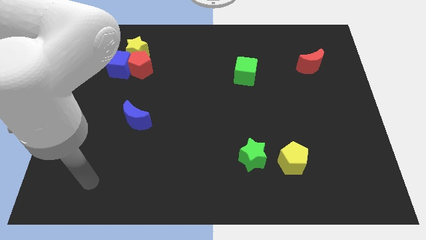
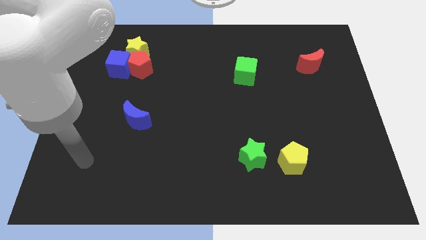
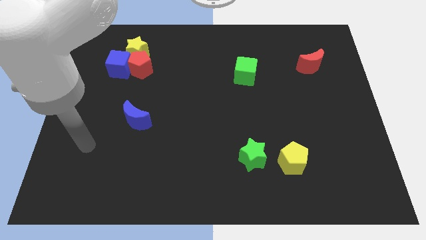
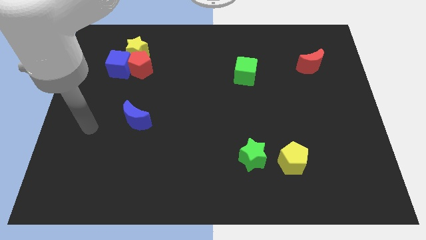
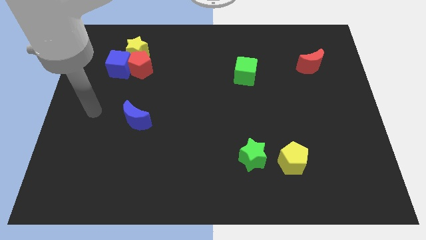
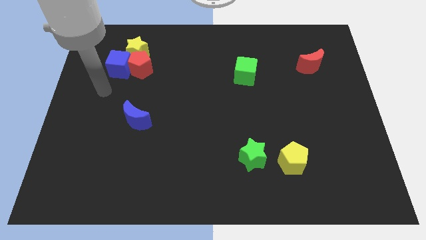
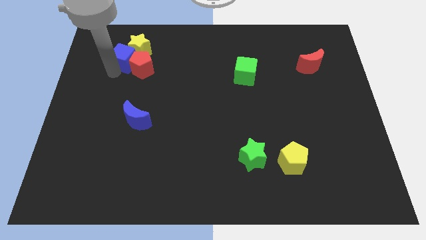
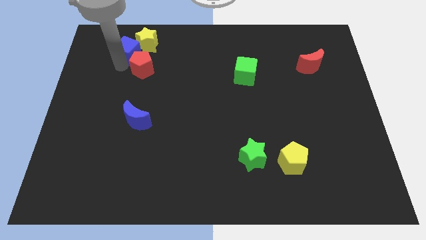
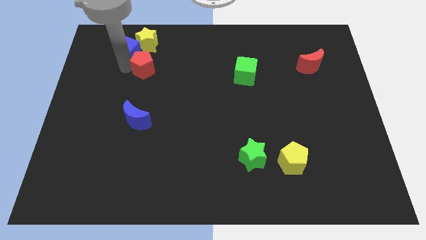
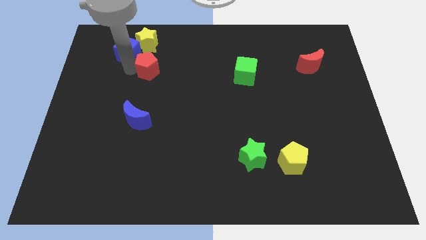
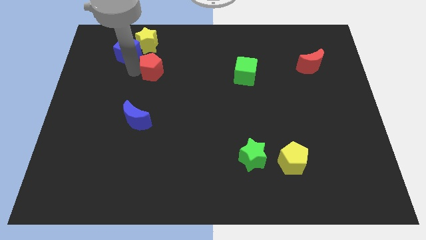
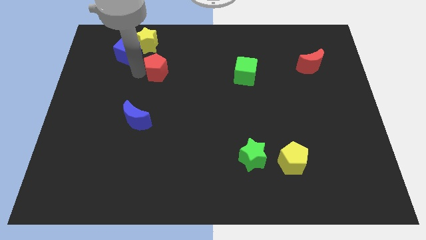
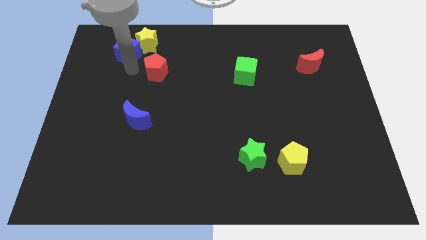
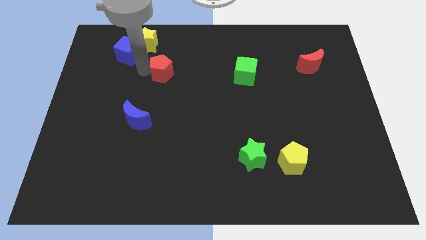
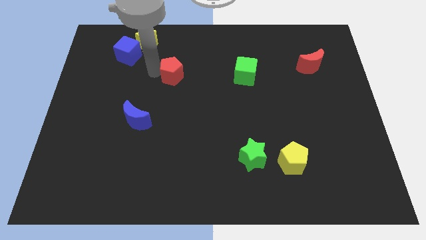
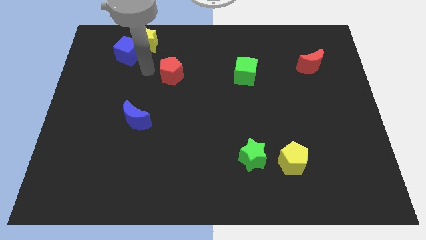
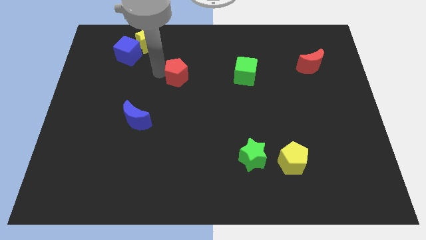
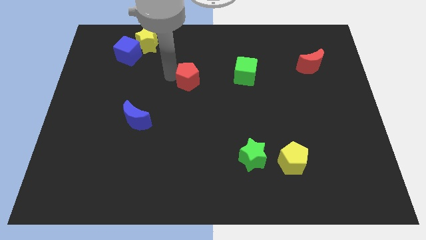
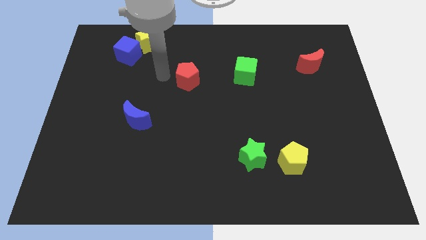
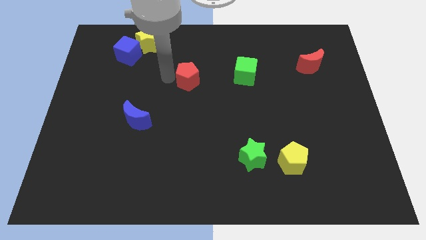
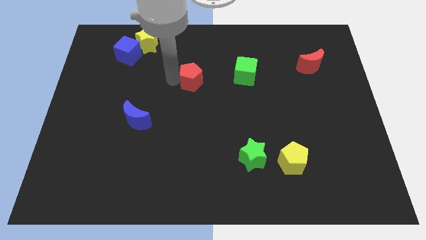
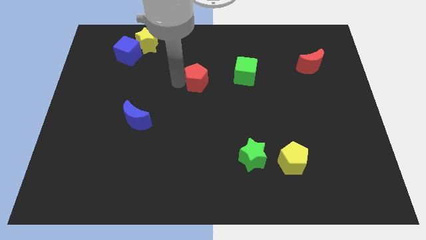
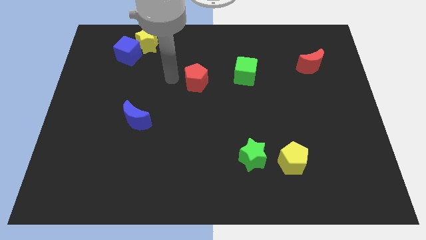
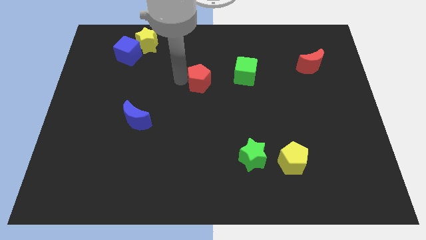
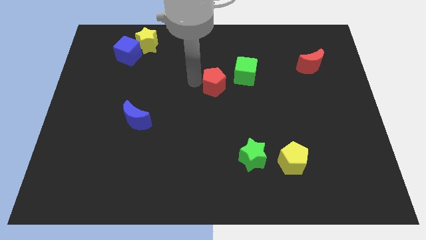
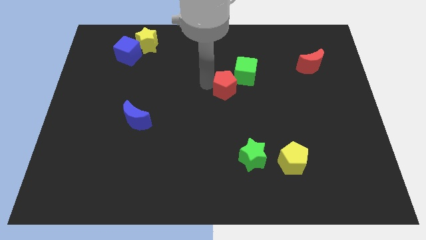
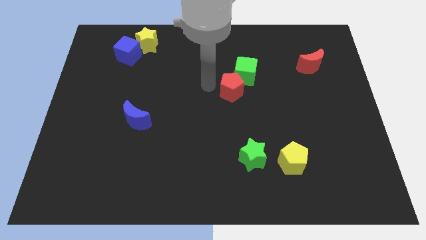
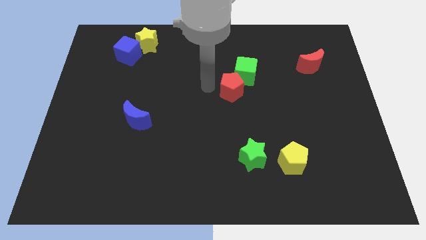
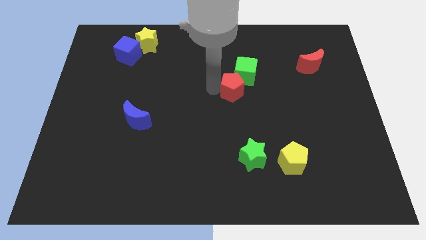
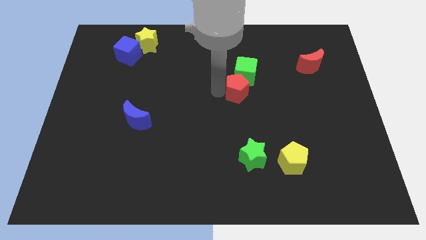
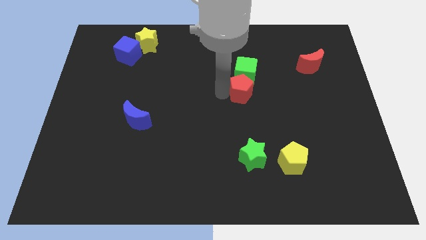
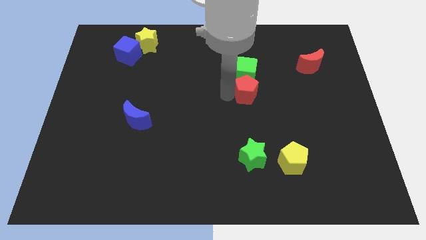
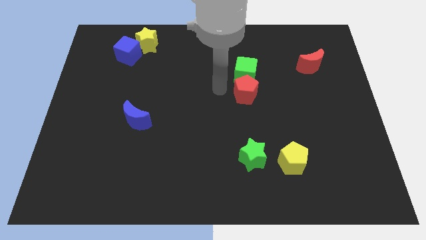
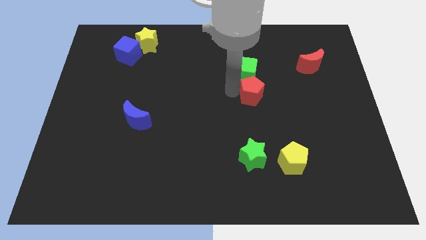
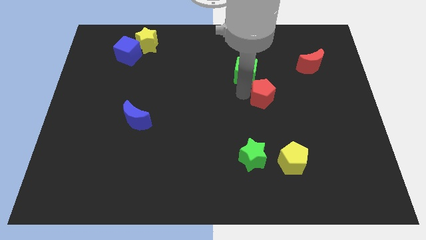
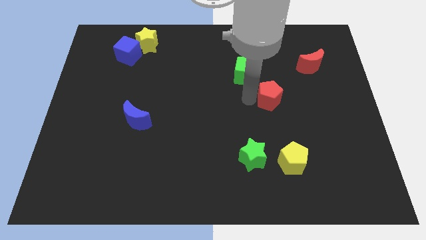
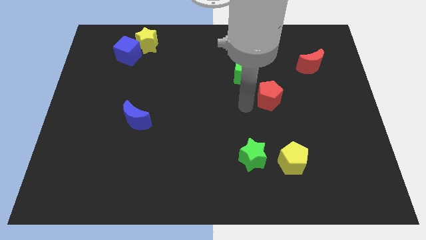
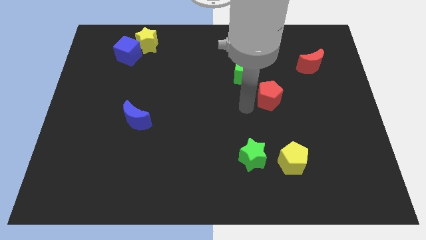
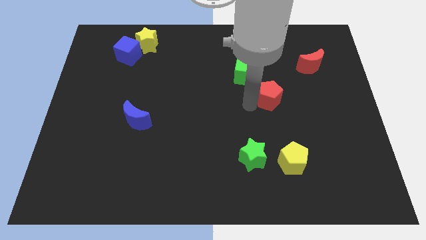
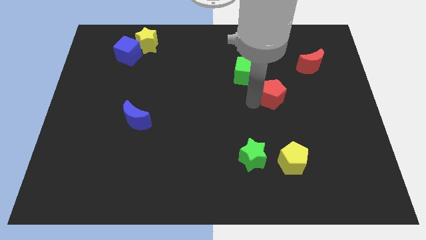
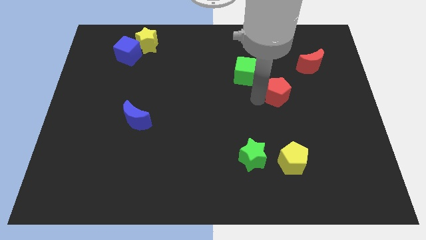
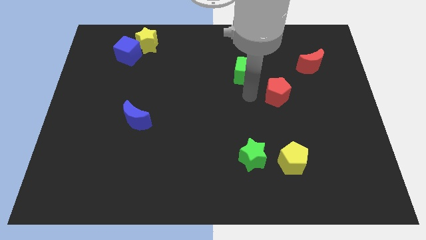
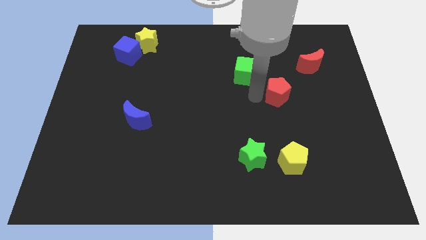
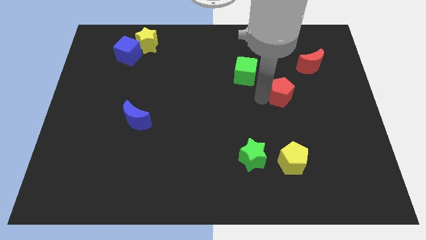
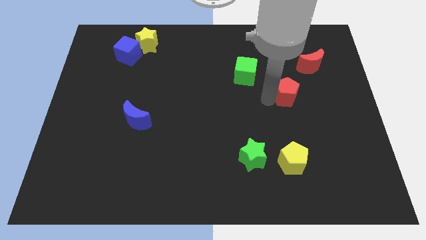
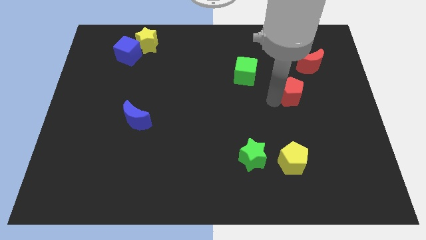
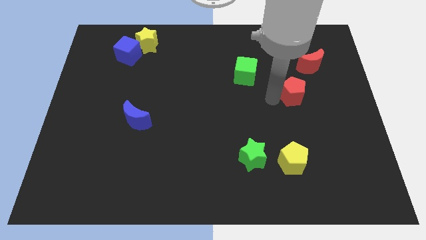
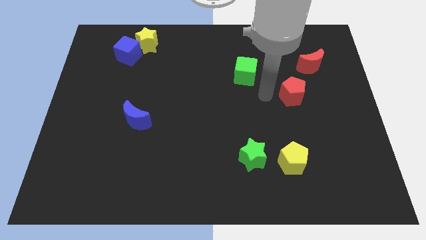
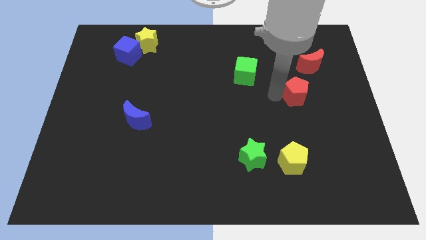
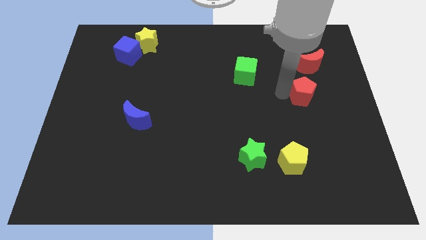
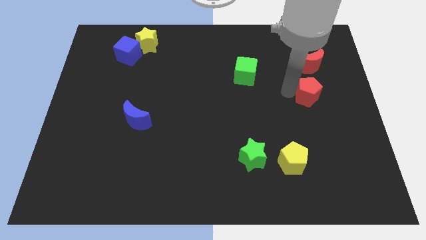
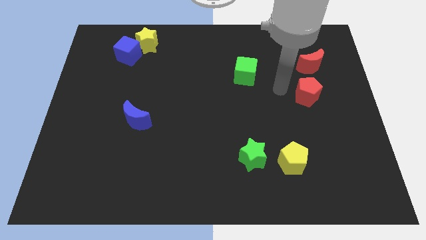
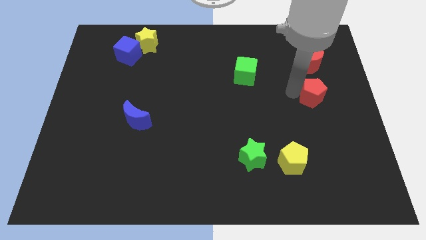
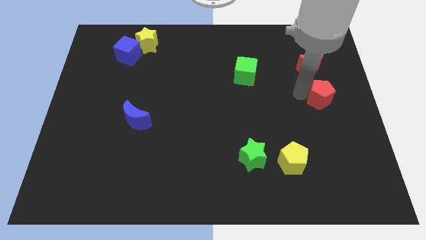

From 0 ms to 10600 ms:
move the red pentagon to the right side

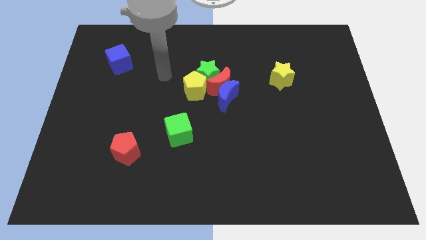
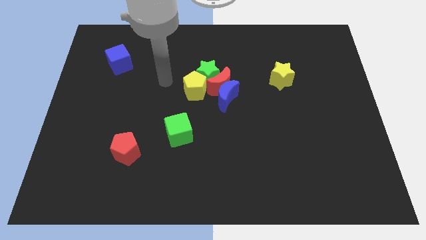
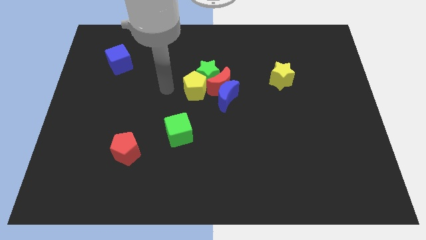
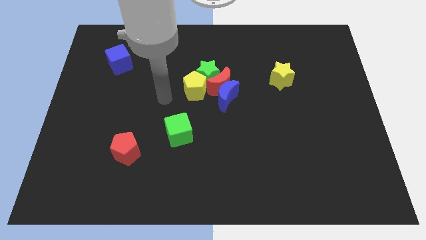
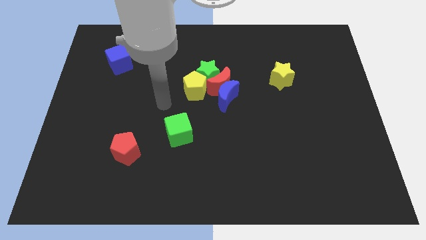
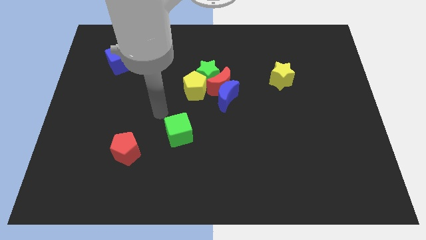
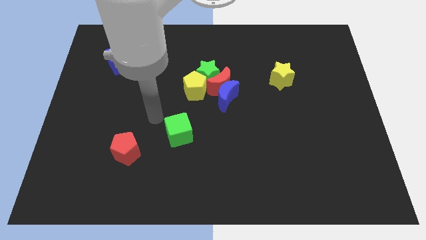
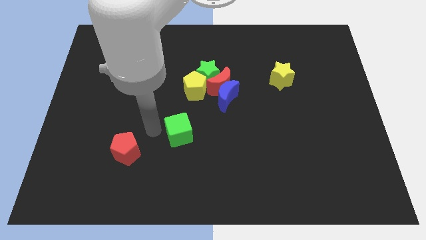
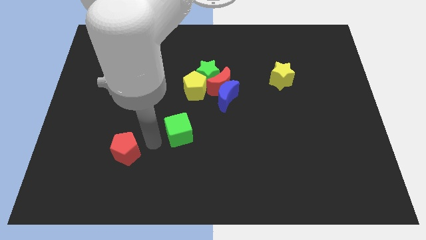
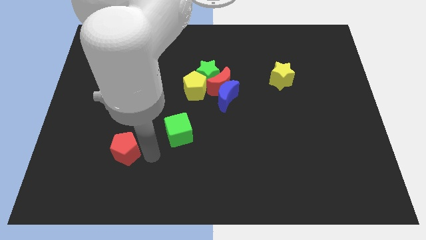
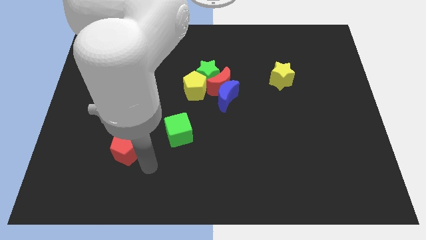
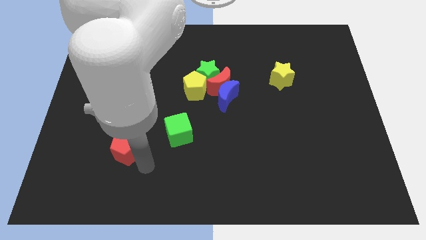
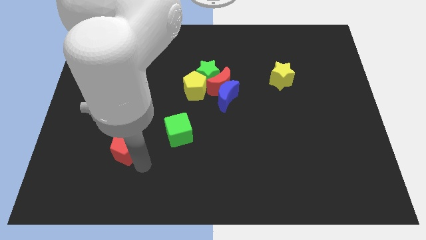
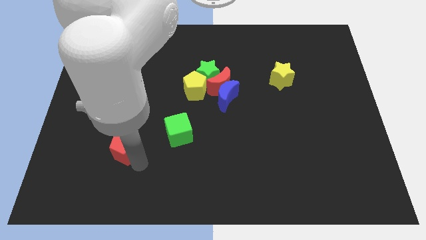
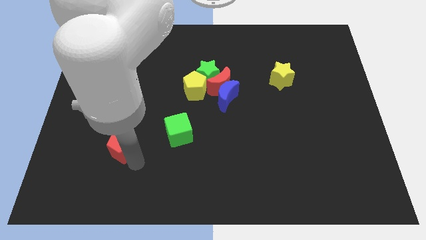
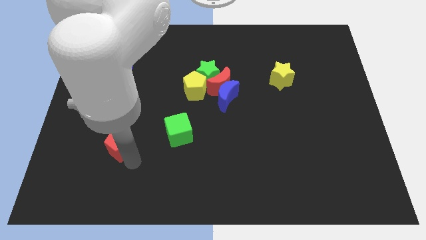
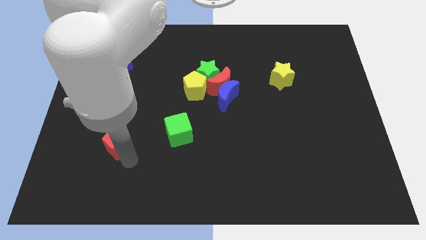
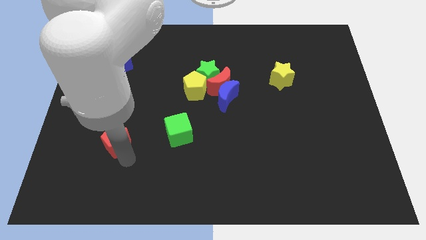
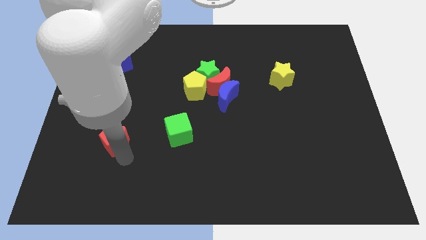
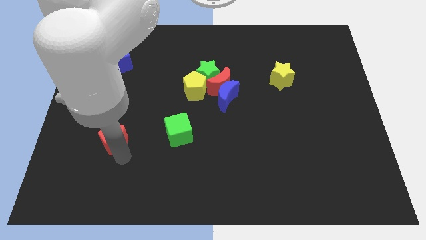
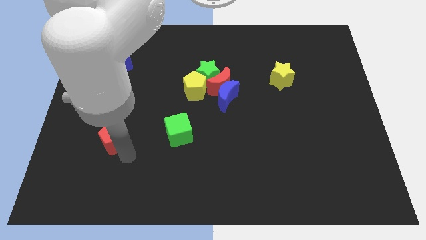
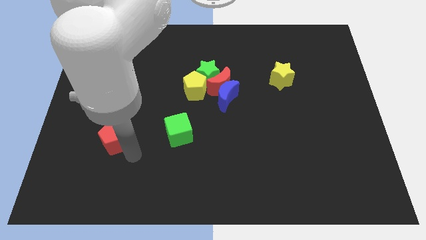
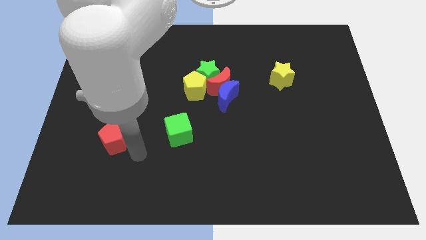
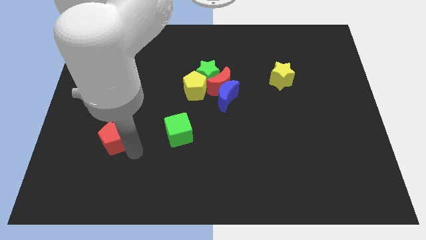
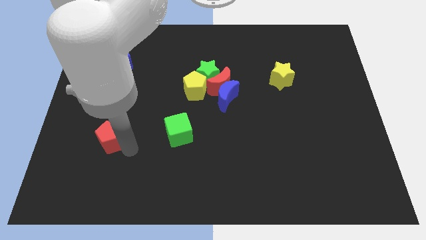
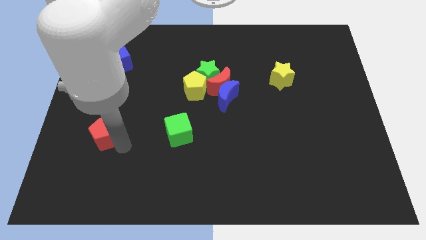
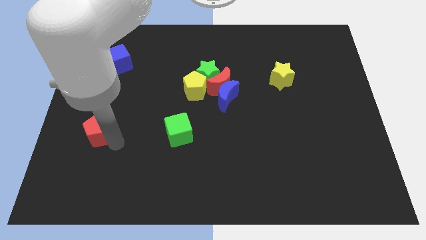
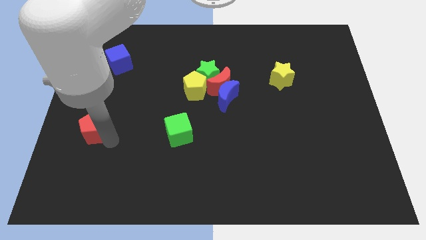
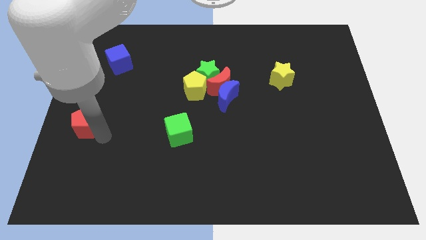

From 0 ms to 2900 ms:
move the red pentagon to the center left
